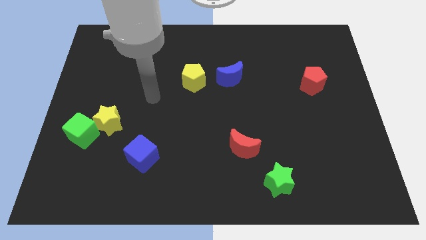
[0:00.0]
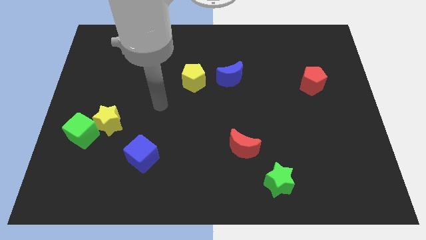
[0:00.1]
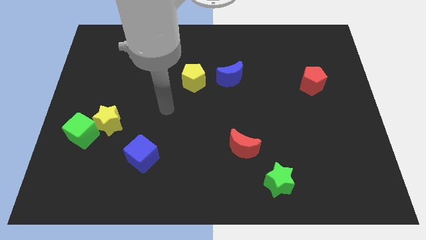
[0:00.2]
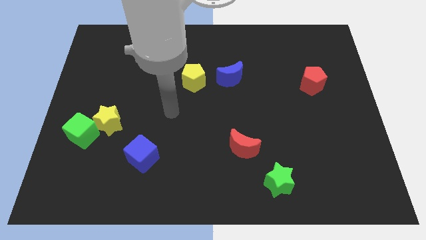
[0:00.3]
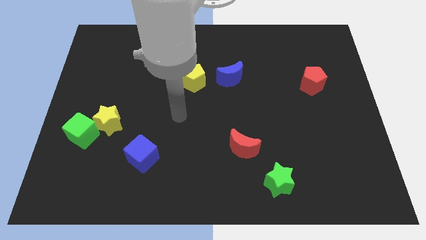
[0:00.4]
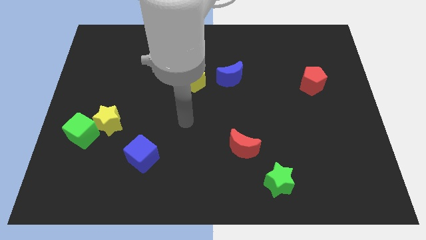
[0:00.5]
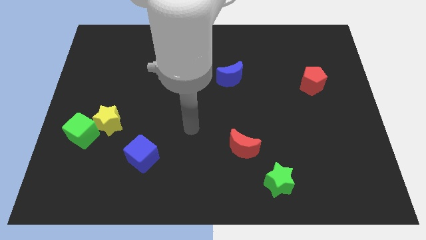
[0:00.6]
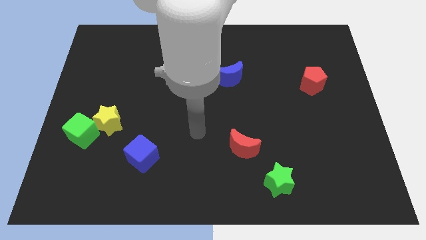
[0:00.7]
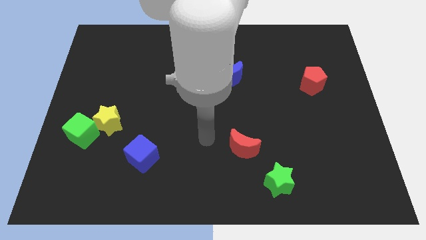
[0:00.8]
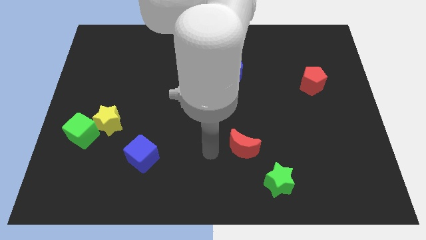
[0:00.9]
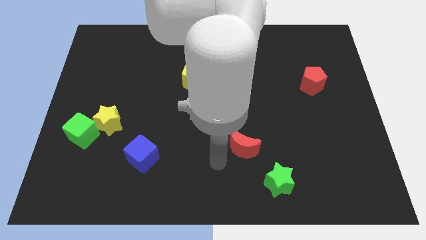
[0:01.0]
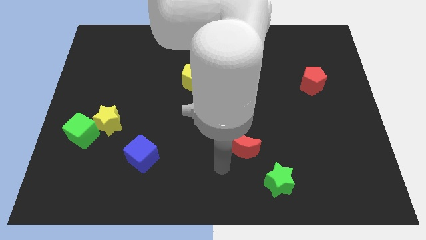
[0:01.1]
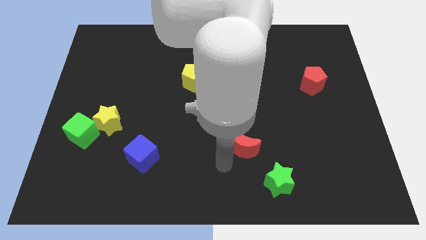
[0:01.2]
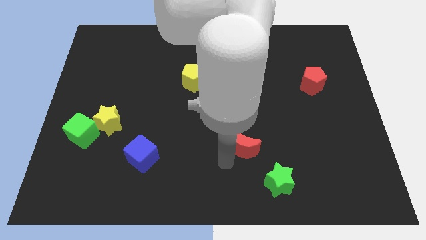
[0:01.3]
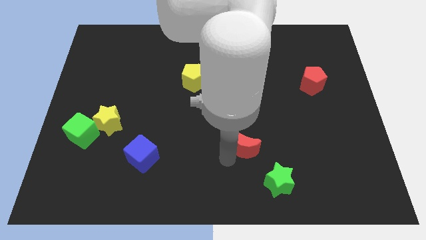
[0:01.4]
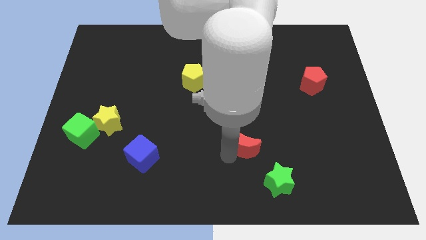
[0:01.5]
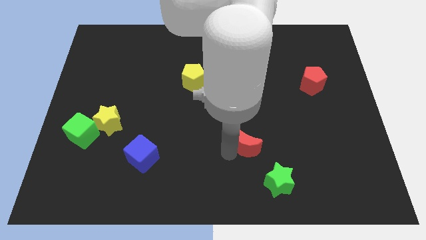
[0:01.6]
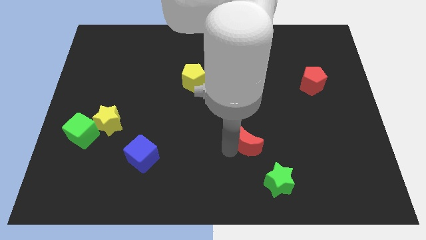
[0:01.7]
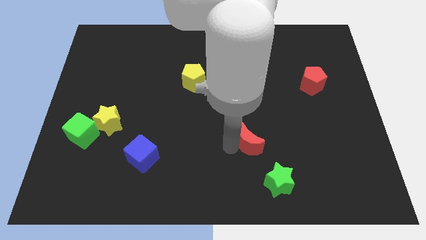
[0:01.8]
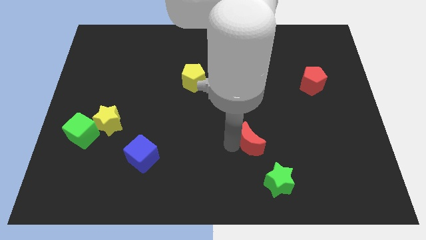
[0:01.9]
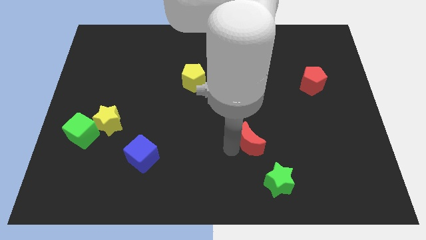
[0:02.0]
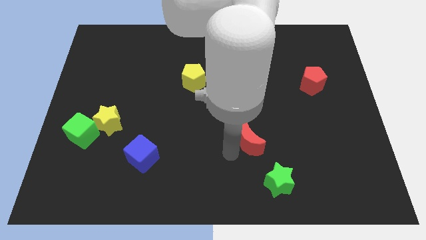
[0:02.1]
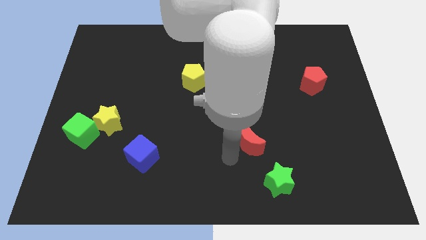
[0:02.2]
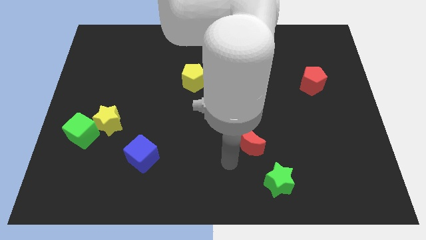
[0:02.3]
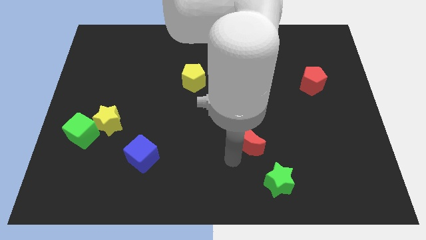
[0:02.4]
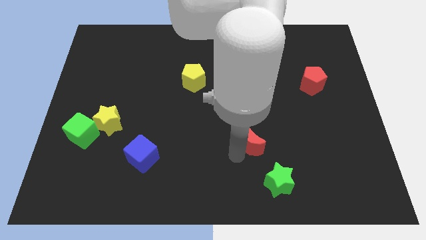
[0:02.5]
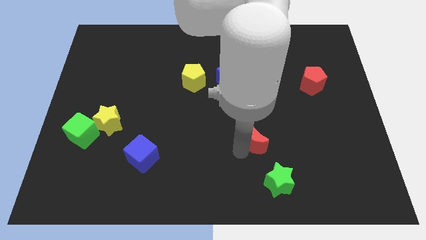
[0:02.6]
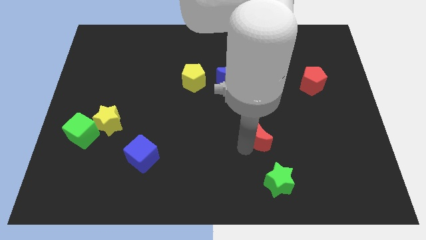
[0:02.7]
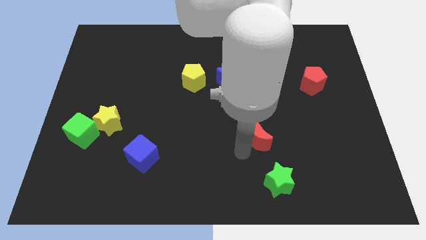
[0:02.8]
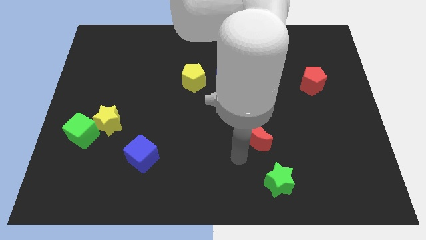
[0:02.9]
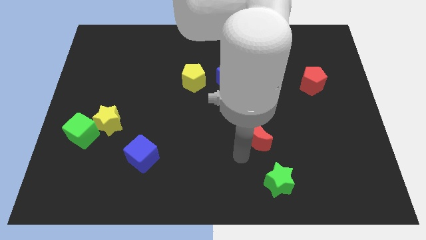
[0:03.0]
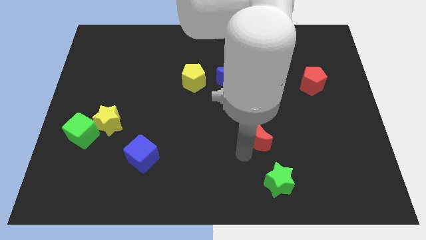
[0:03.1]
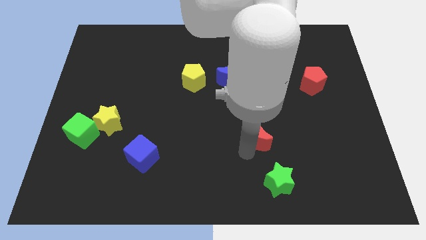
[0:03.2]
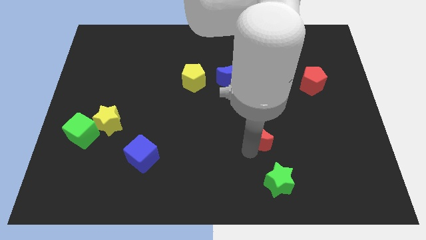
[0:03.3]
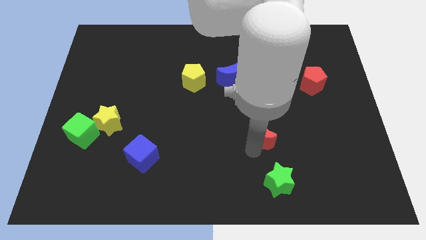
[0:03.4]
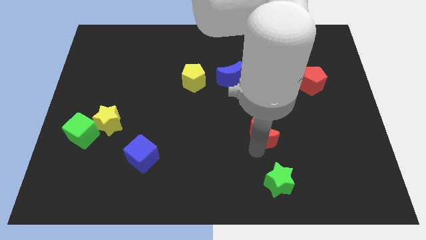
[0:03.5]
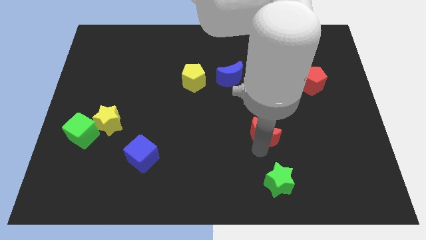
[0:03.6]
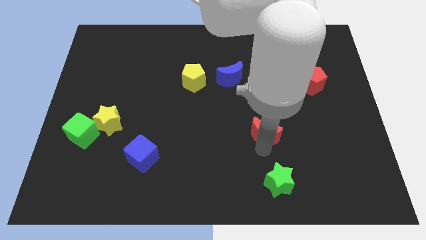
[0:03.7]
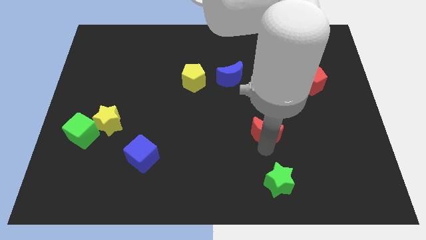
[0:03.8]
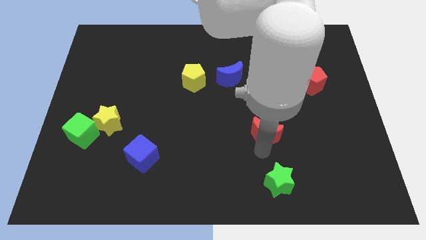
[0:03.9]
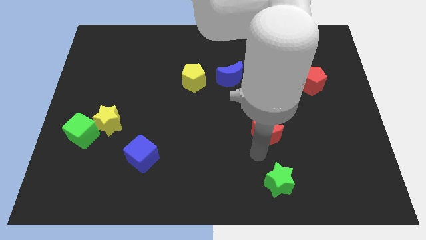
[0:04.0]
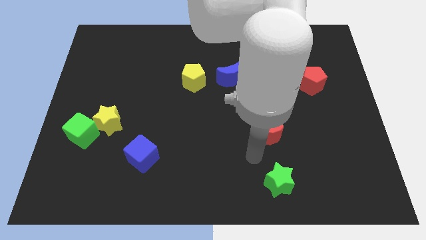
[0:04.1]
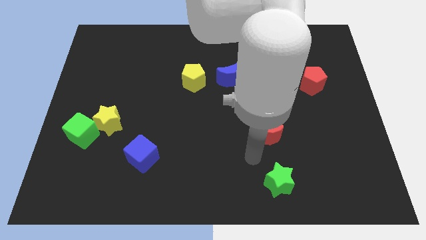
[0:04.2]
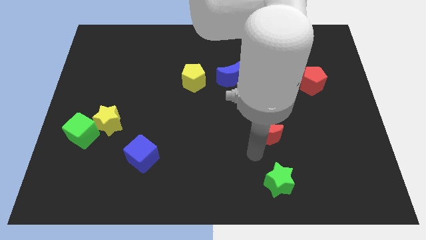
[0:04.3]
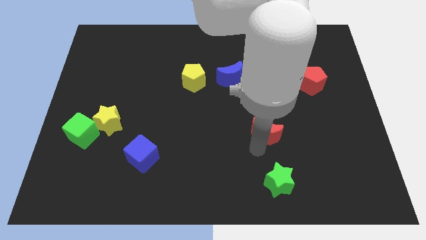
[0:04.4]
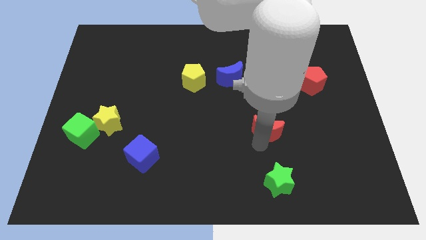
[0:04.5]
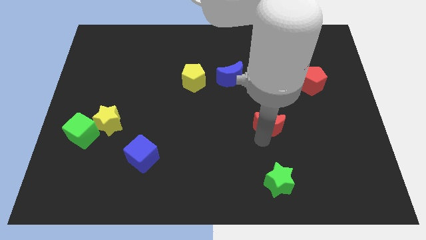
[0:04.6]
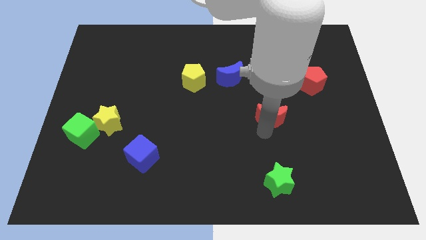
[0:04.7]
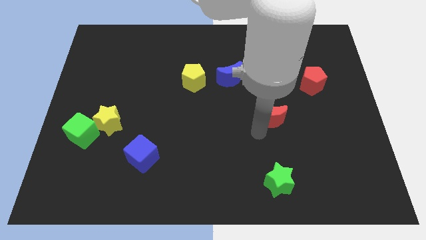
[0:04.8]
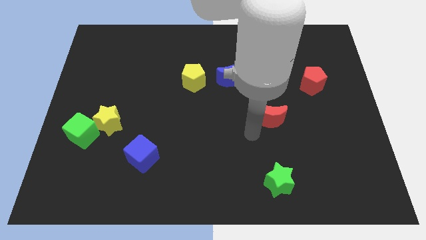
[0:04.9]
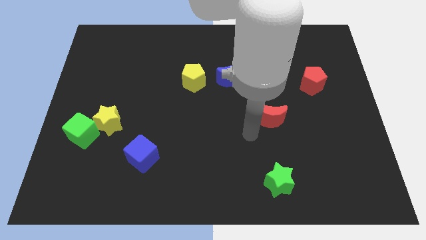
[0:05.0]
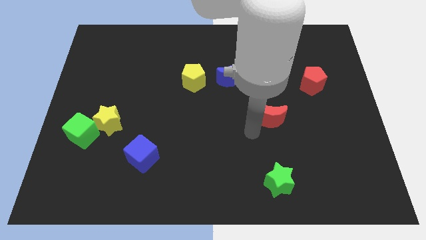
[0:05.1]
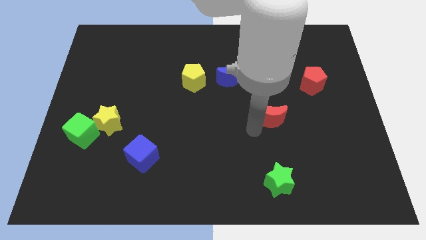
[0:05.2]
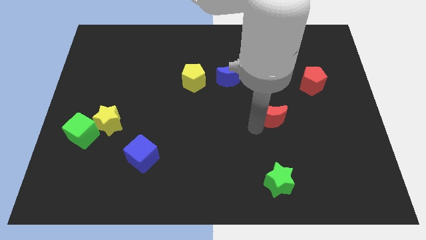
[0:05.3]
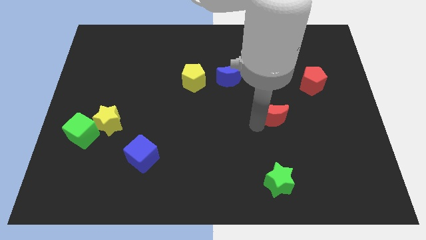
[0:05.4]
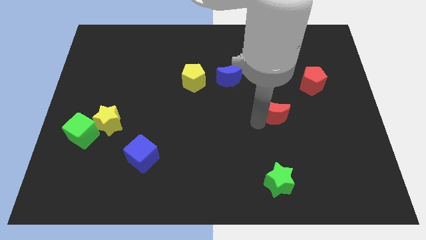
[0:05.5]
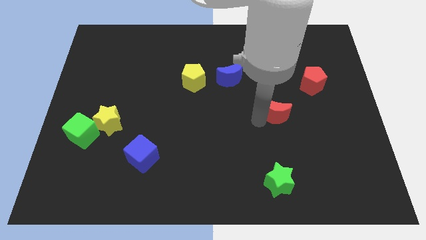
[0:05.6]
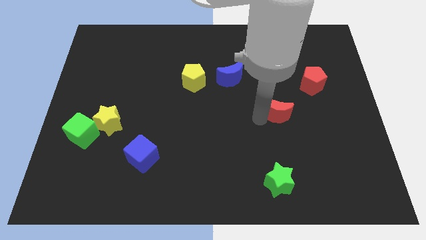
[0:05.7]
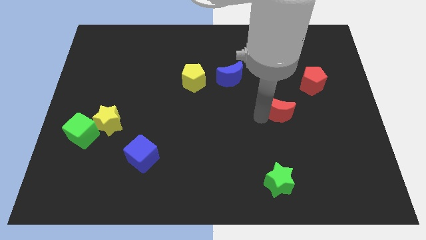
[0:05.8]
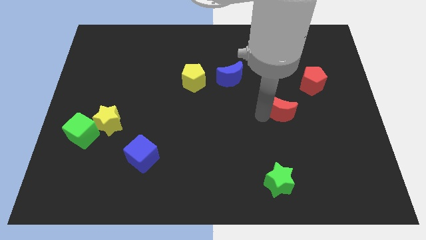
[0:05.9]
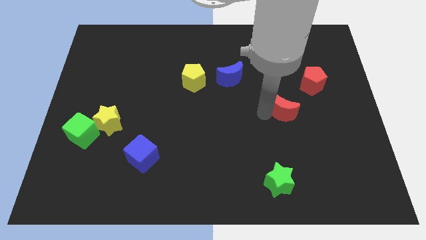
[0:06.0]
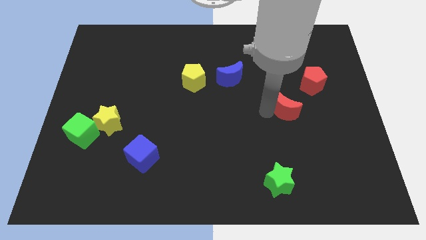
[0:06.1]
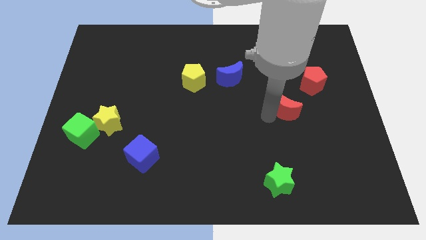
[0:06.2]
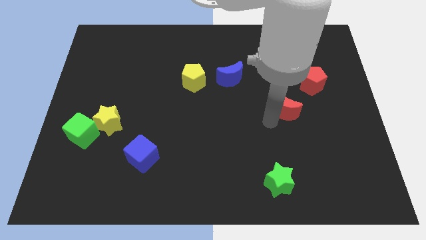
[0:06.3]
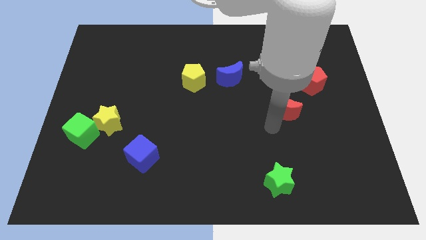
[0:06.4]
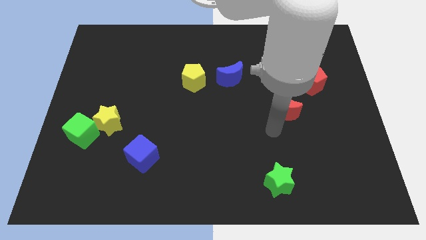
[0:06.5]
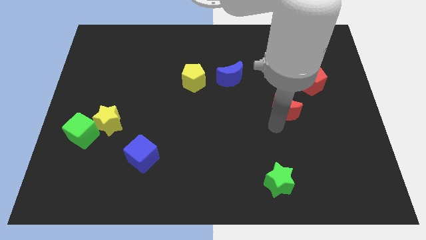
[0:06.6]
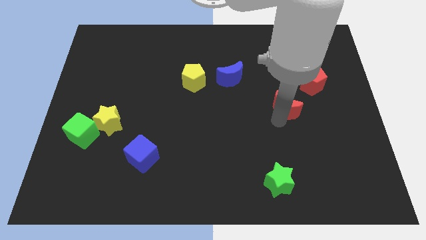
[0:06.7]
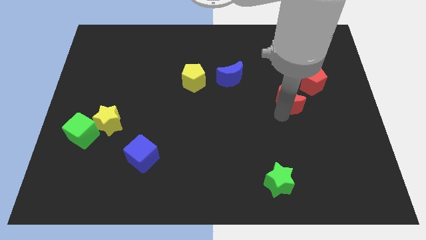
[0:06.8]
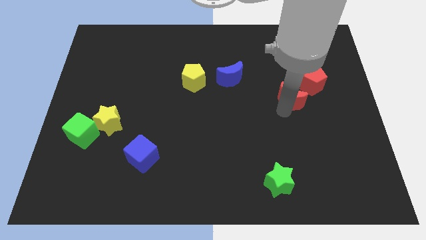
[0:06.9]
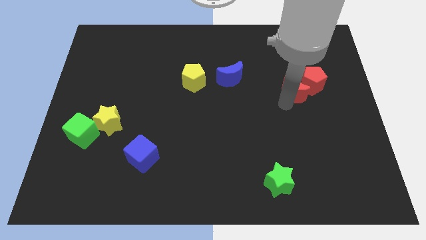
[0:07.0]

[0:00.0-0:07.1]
push the red moon close to the red pentagon
